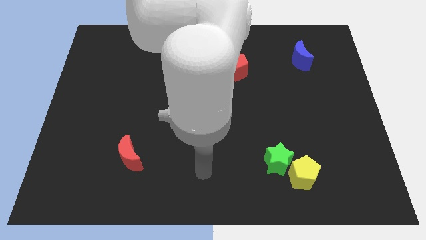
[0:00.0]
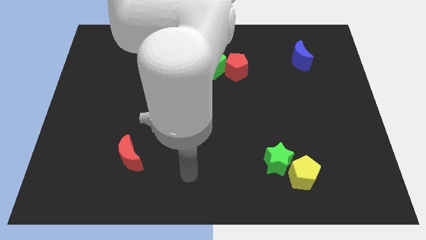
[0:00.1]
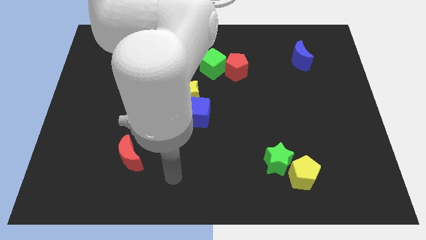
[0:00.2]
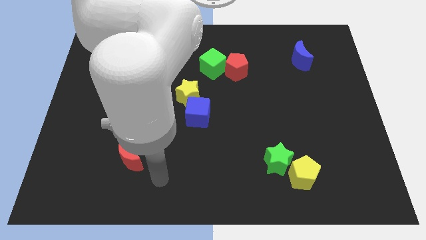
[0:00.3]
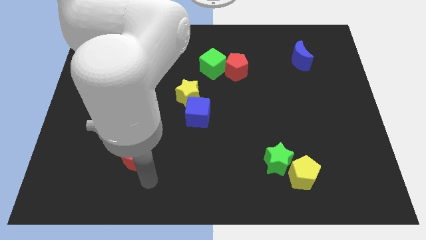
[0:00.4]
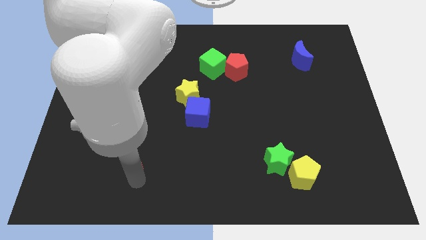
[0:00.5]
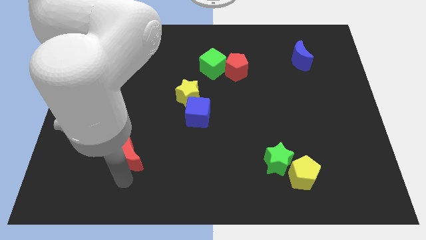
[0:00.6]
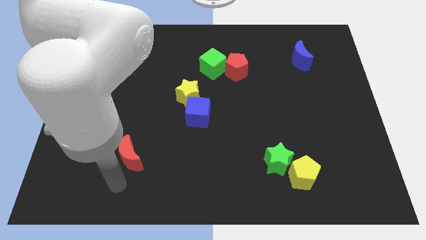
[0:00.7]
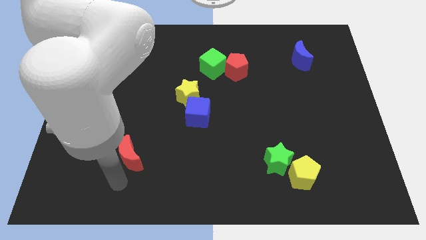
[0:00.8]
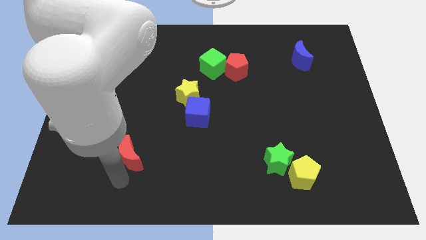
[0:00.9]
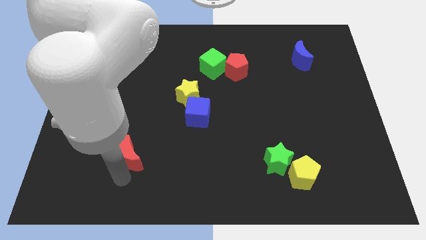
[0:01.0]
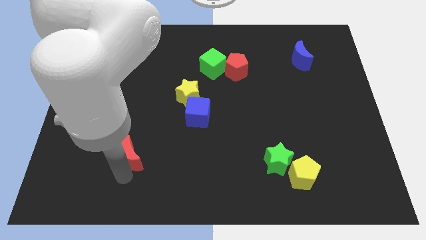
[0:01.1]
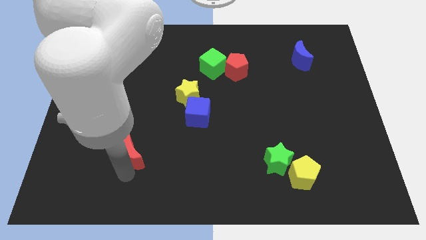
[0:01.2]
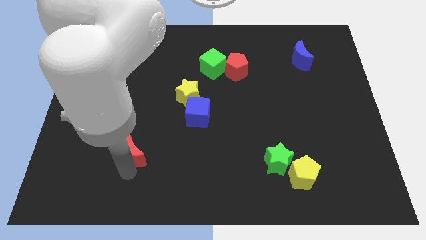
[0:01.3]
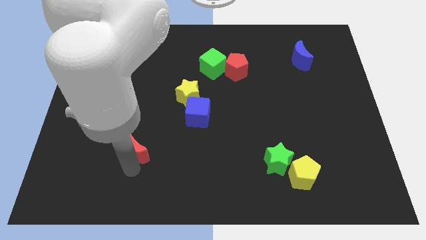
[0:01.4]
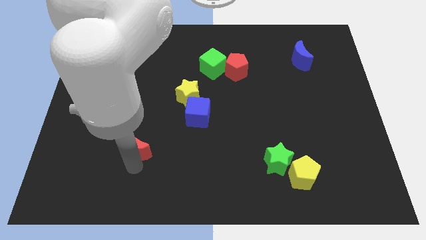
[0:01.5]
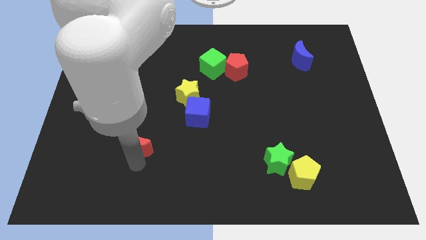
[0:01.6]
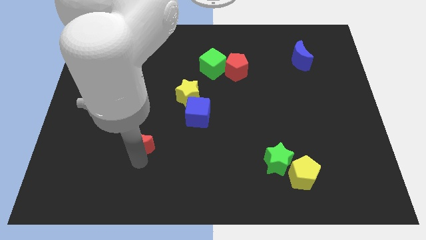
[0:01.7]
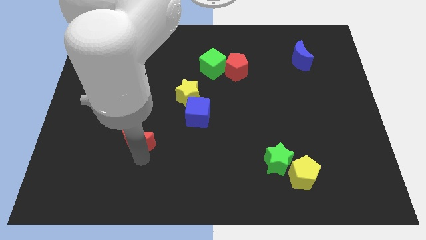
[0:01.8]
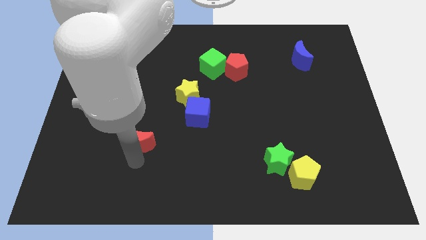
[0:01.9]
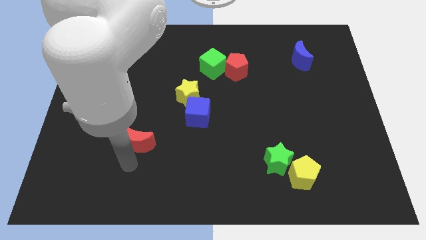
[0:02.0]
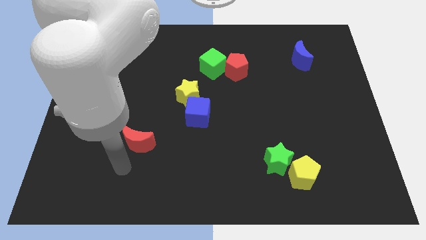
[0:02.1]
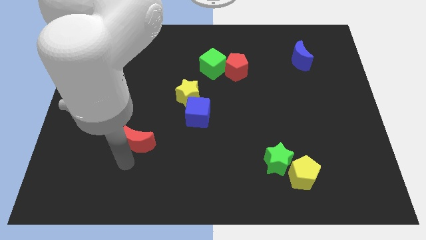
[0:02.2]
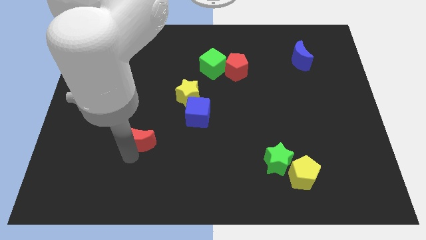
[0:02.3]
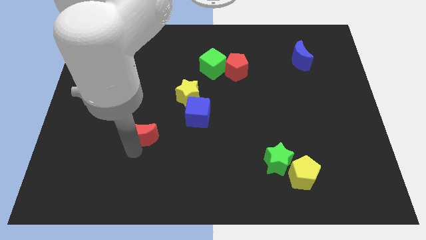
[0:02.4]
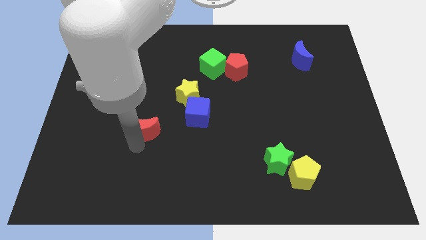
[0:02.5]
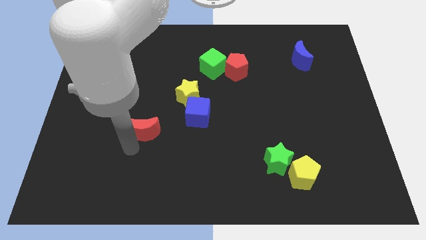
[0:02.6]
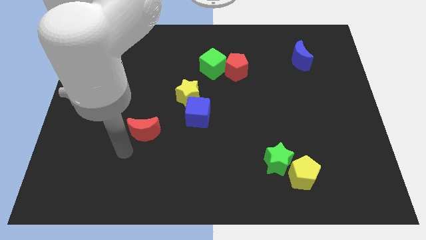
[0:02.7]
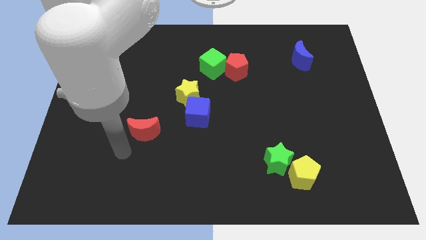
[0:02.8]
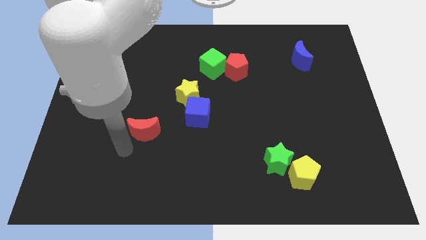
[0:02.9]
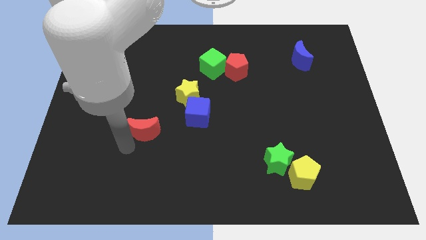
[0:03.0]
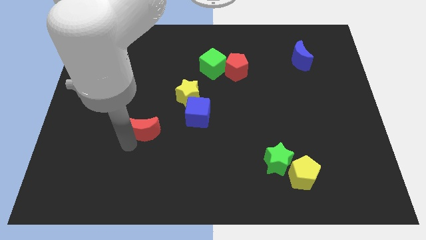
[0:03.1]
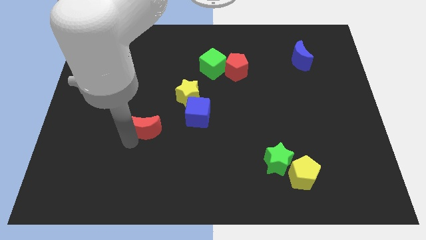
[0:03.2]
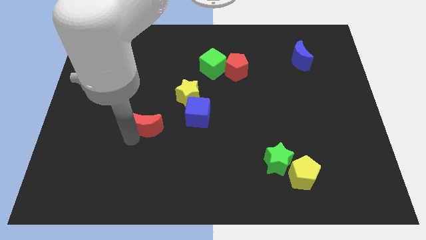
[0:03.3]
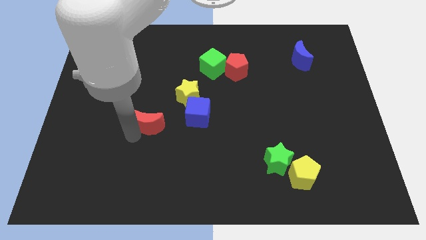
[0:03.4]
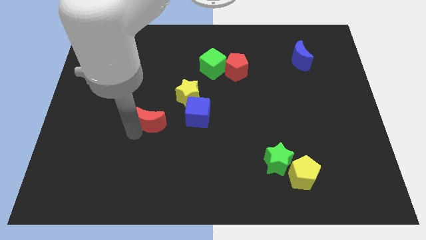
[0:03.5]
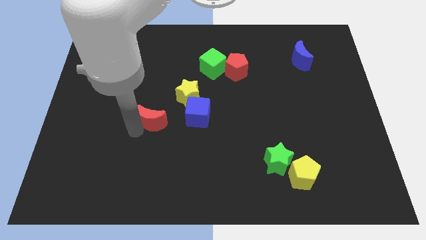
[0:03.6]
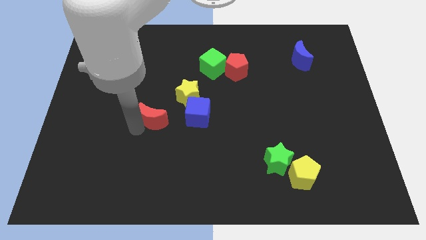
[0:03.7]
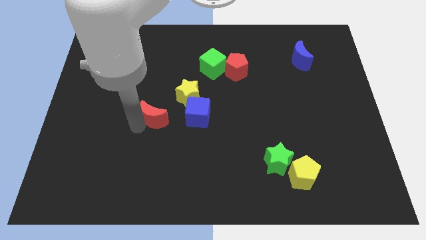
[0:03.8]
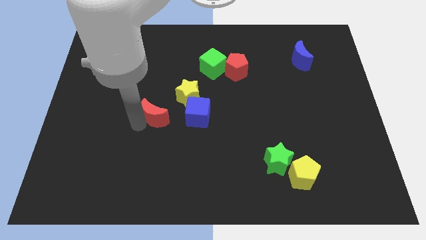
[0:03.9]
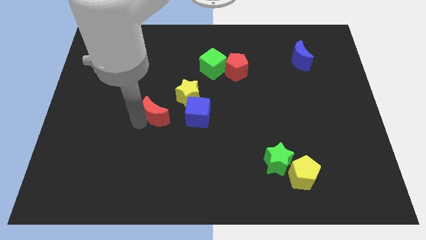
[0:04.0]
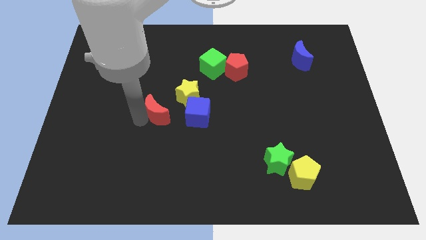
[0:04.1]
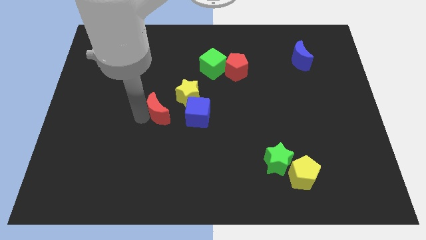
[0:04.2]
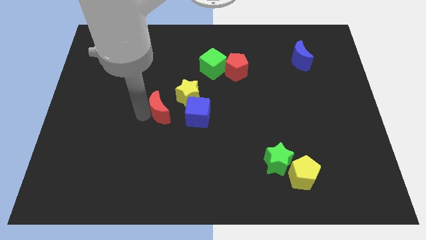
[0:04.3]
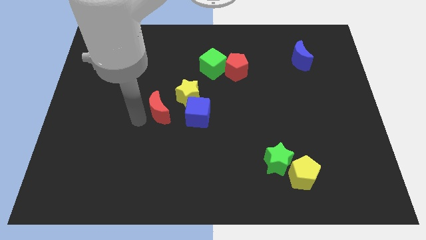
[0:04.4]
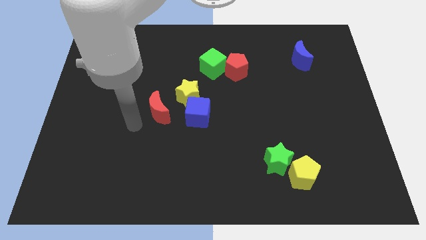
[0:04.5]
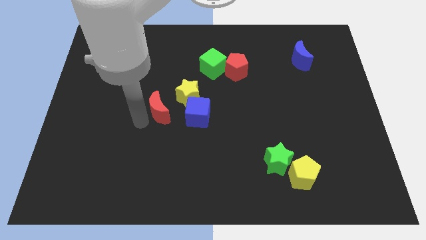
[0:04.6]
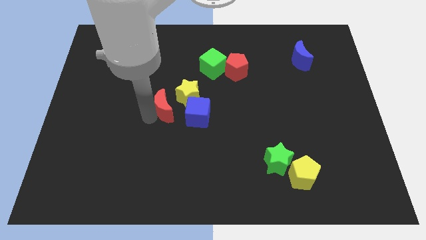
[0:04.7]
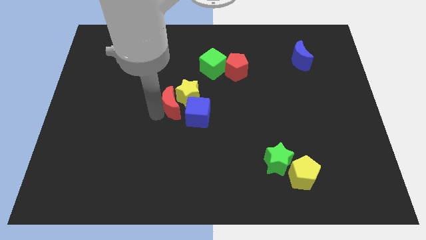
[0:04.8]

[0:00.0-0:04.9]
put the red moon towards the yellow star

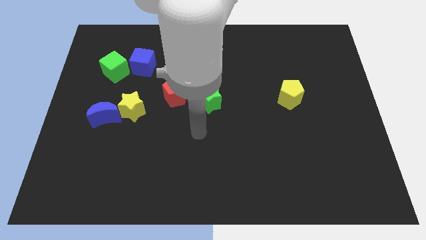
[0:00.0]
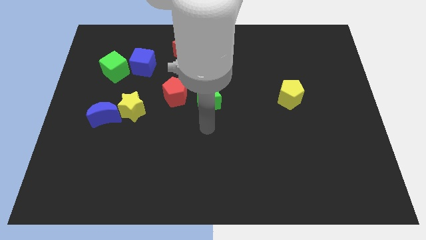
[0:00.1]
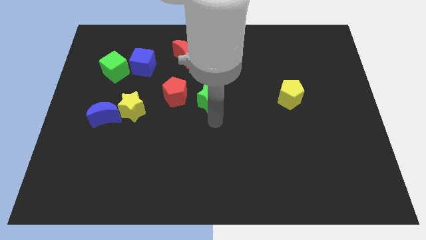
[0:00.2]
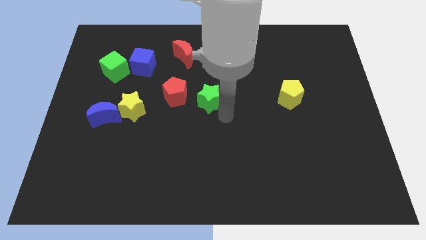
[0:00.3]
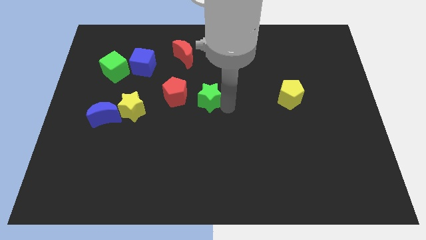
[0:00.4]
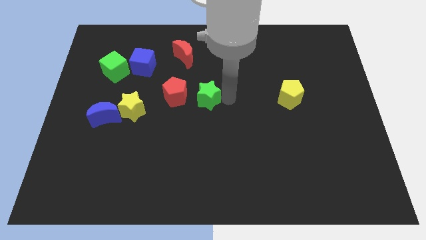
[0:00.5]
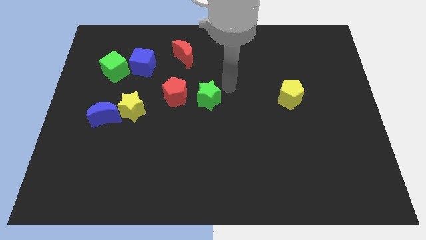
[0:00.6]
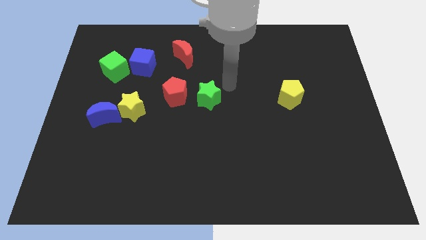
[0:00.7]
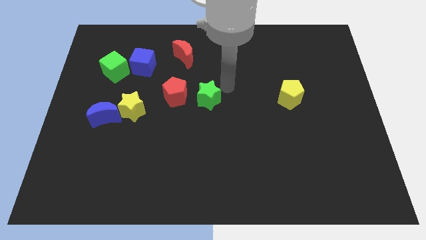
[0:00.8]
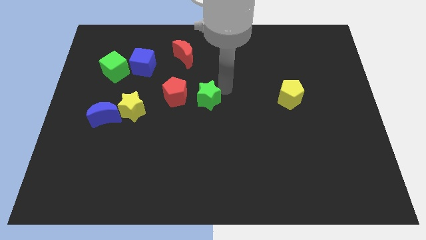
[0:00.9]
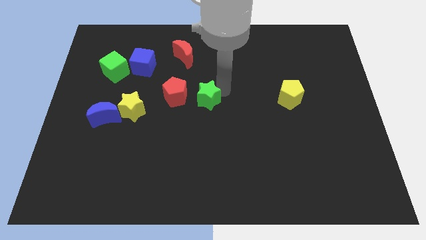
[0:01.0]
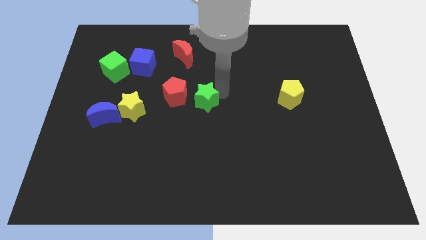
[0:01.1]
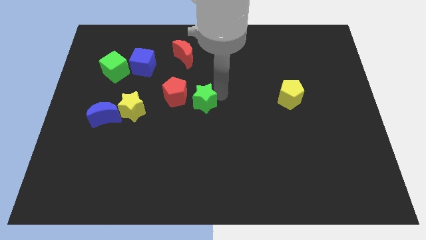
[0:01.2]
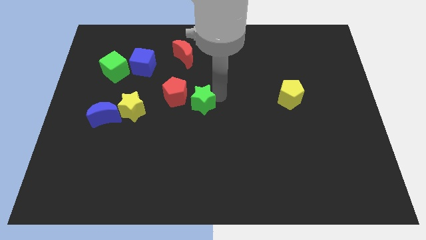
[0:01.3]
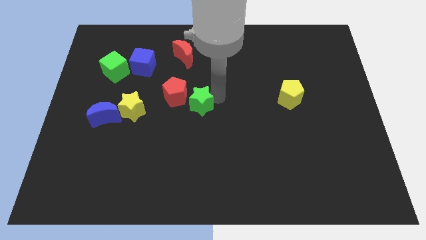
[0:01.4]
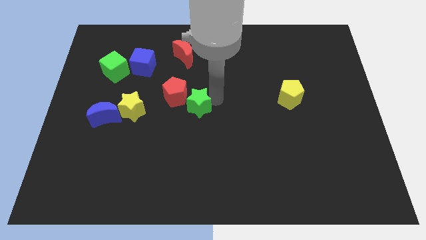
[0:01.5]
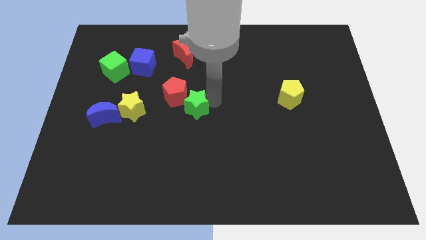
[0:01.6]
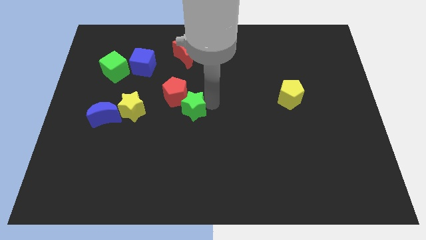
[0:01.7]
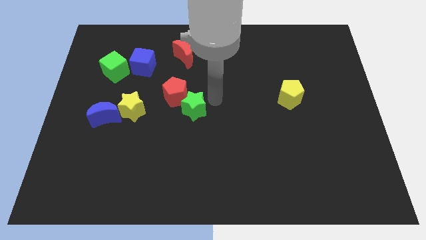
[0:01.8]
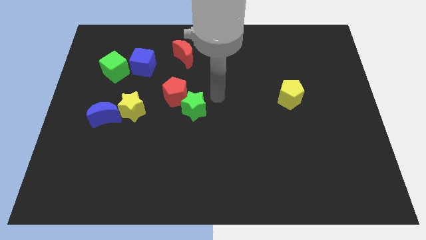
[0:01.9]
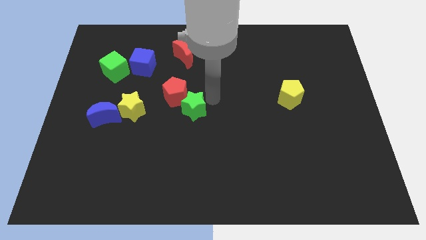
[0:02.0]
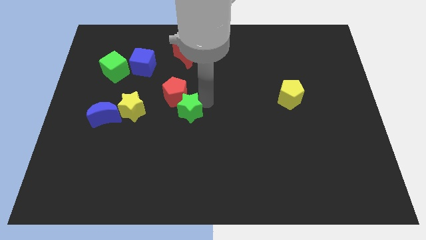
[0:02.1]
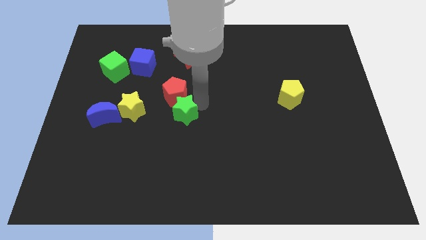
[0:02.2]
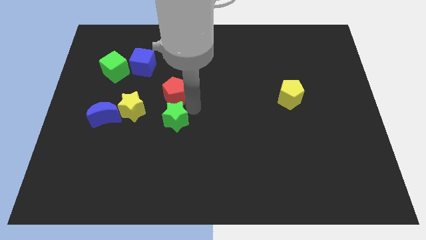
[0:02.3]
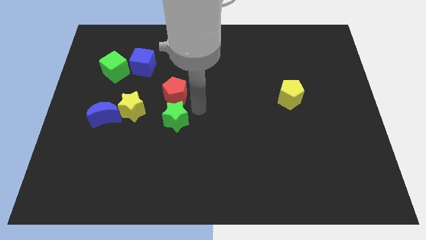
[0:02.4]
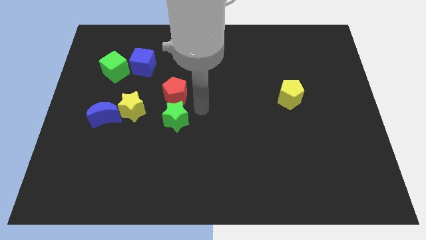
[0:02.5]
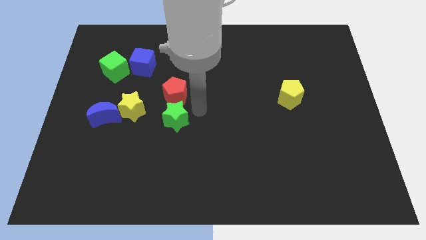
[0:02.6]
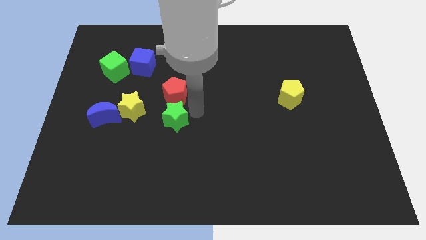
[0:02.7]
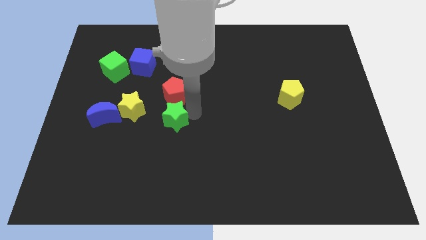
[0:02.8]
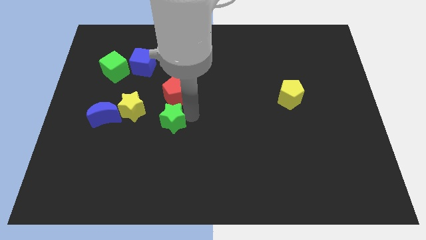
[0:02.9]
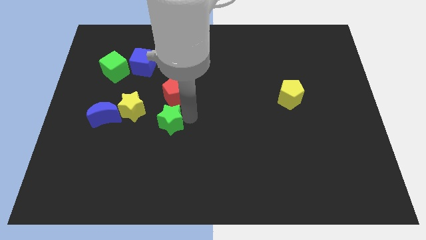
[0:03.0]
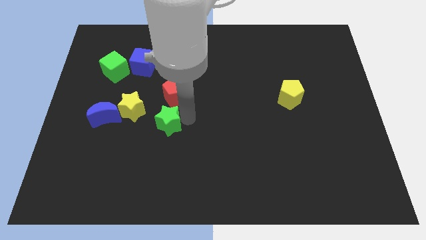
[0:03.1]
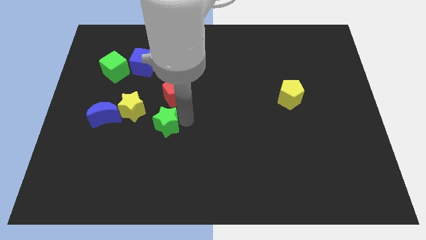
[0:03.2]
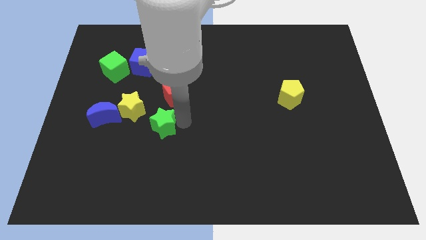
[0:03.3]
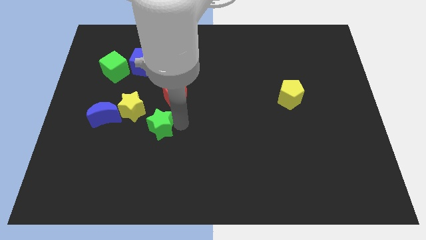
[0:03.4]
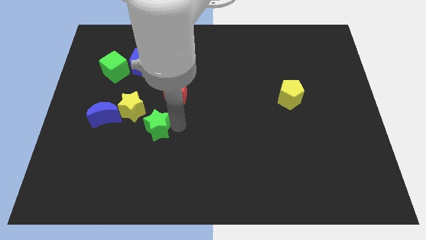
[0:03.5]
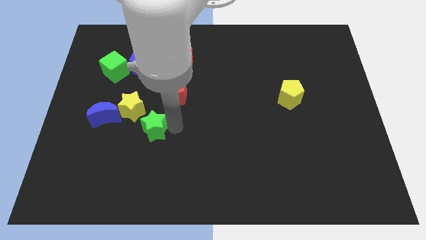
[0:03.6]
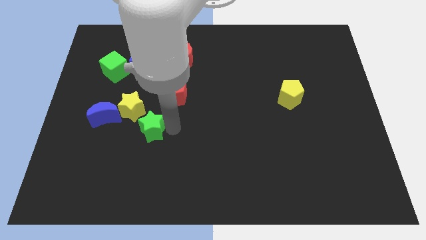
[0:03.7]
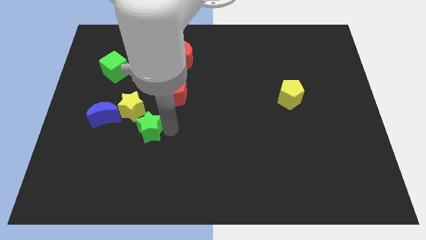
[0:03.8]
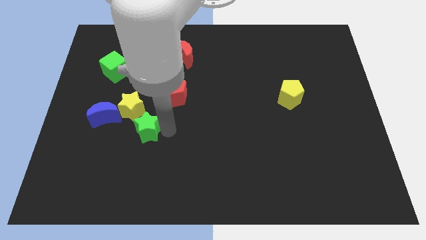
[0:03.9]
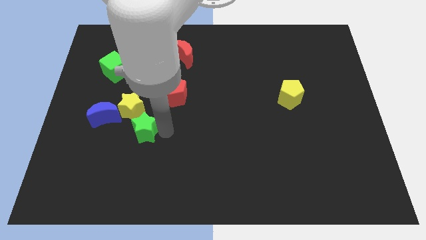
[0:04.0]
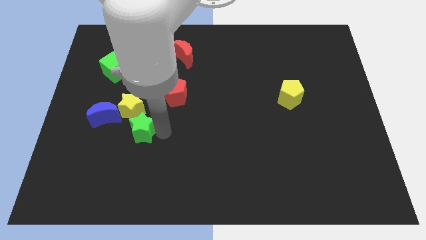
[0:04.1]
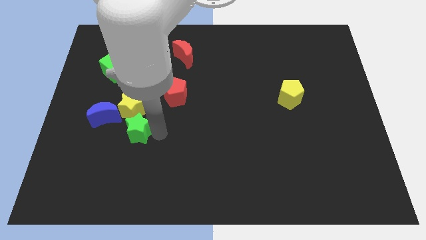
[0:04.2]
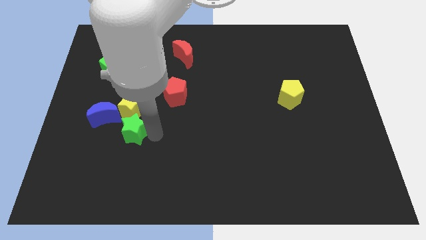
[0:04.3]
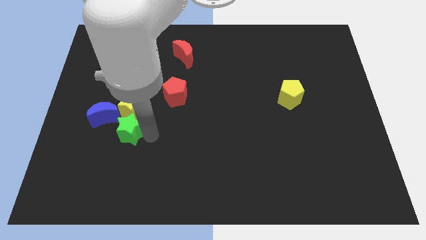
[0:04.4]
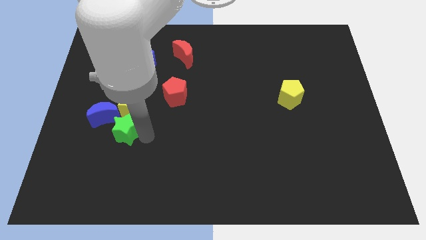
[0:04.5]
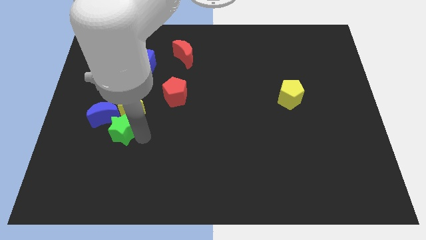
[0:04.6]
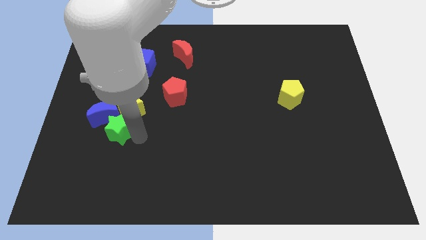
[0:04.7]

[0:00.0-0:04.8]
slide the green star to the blue moon
